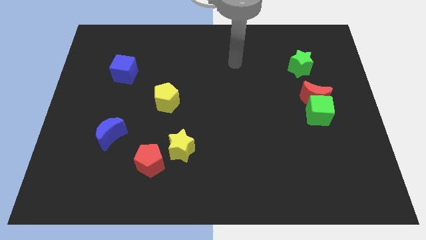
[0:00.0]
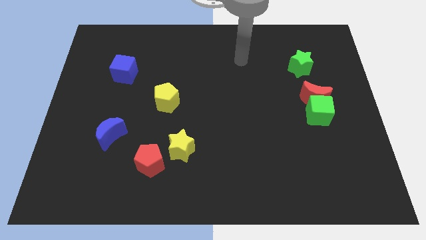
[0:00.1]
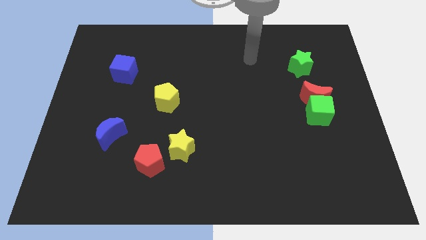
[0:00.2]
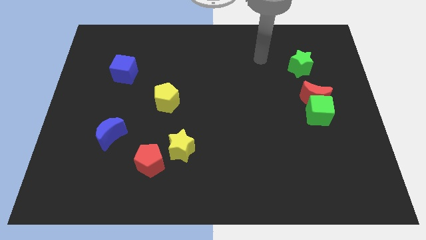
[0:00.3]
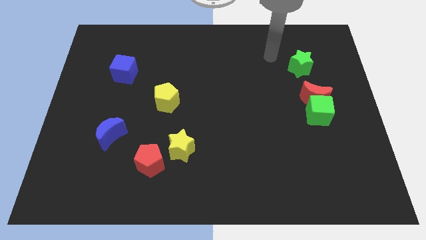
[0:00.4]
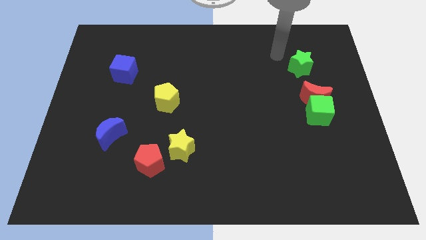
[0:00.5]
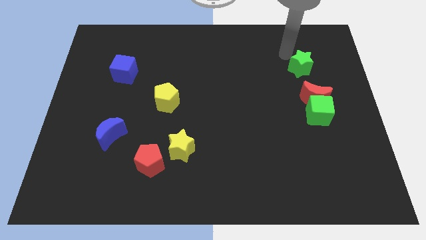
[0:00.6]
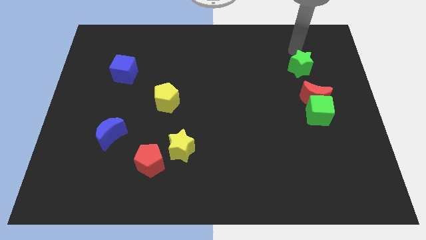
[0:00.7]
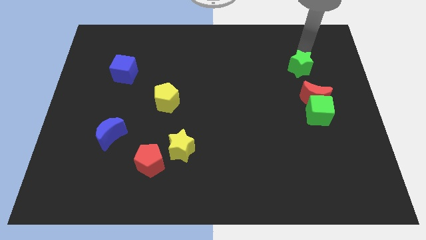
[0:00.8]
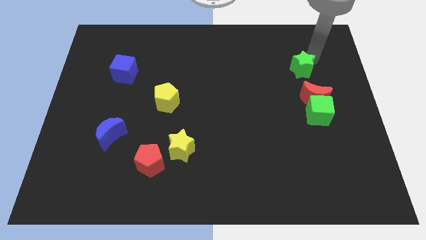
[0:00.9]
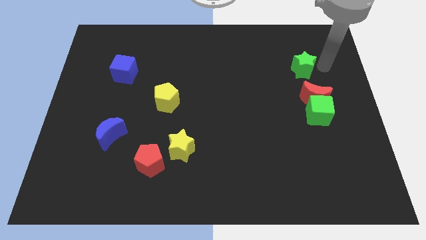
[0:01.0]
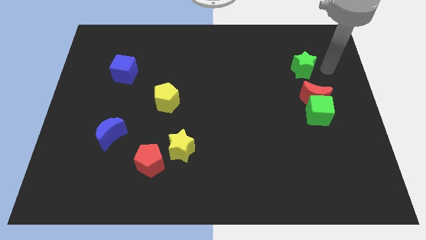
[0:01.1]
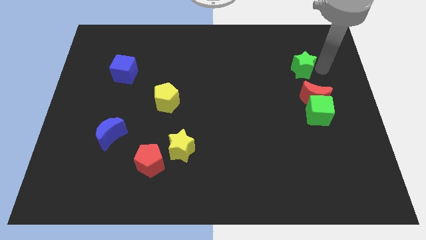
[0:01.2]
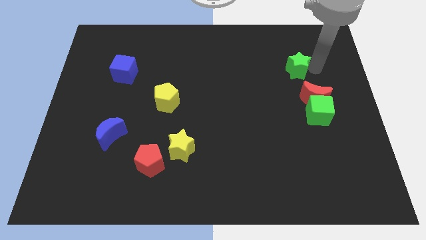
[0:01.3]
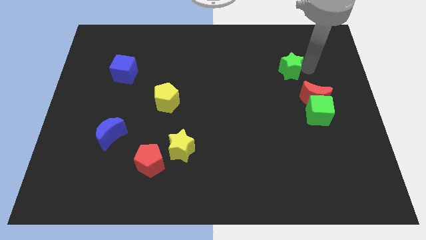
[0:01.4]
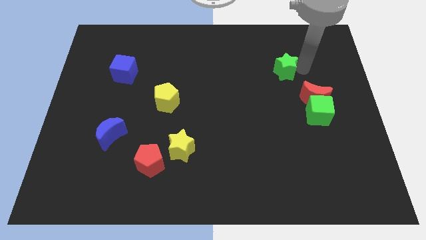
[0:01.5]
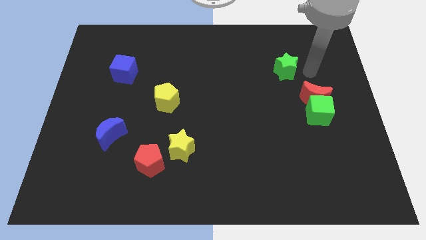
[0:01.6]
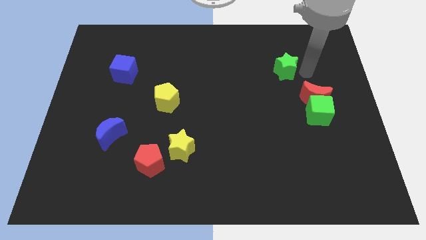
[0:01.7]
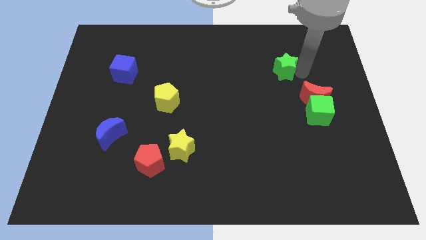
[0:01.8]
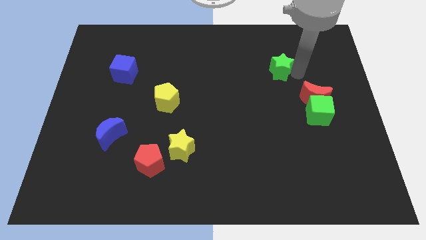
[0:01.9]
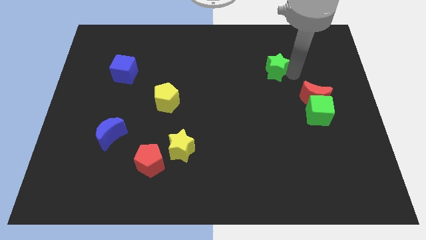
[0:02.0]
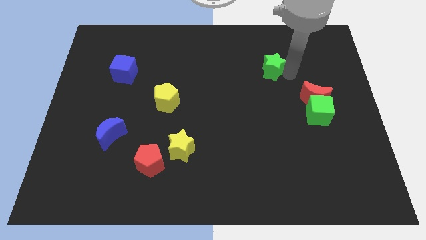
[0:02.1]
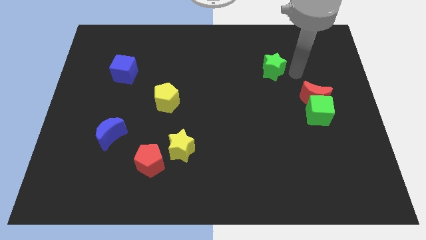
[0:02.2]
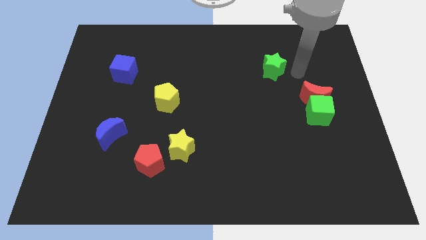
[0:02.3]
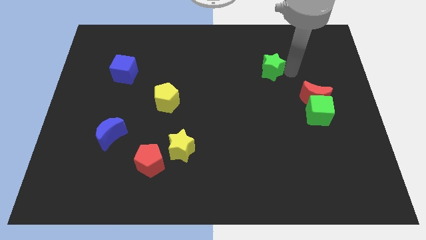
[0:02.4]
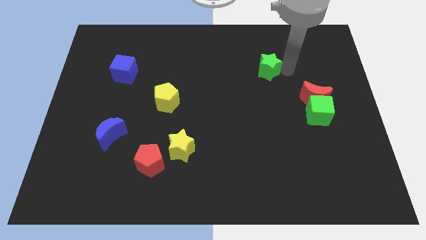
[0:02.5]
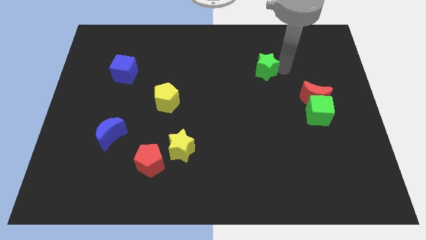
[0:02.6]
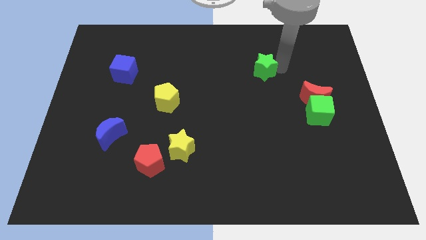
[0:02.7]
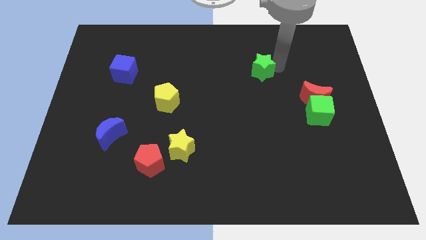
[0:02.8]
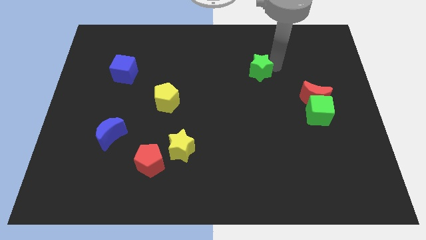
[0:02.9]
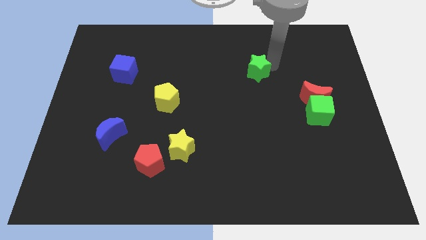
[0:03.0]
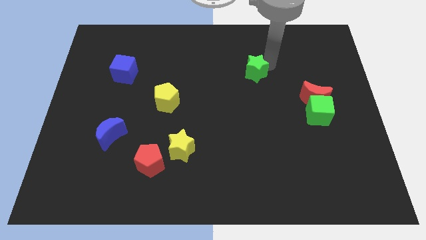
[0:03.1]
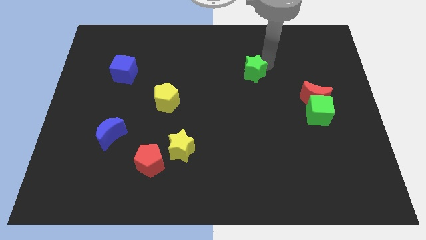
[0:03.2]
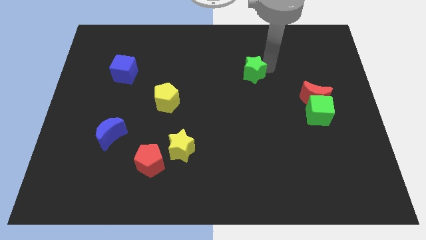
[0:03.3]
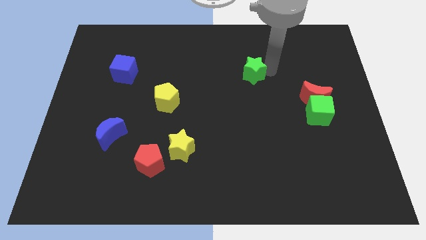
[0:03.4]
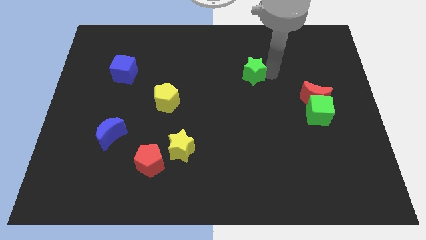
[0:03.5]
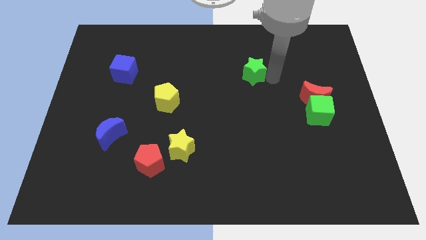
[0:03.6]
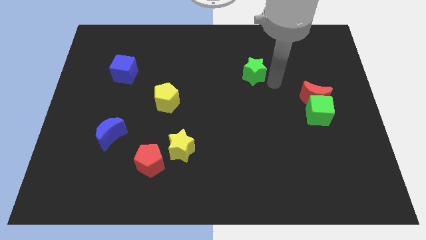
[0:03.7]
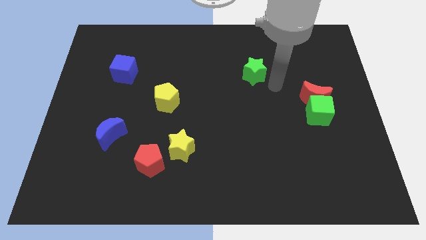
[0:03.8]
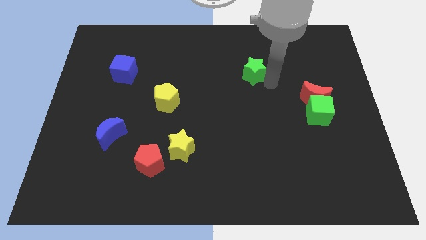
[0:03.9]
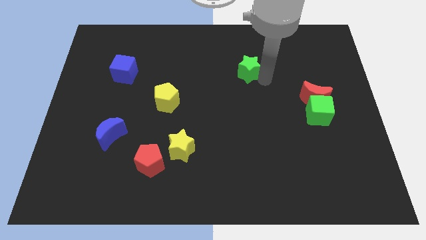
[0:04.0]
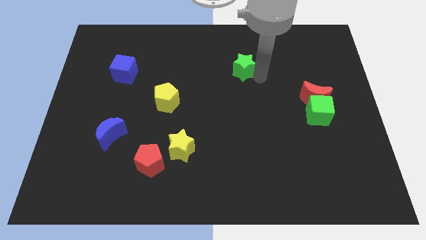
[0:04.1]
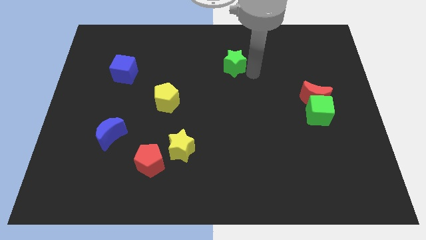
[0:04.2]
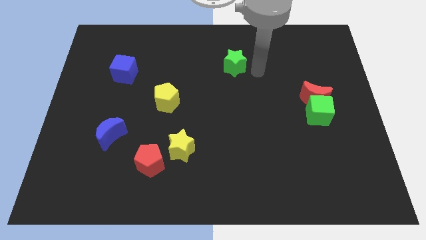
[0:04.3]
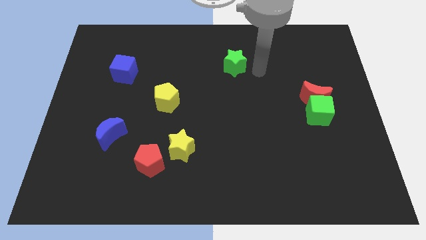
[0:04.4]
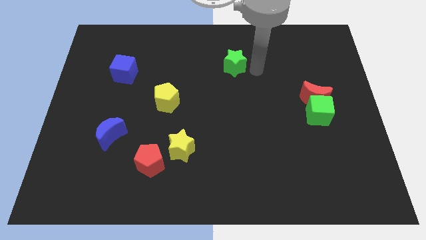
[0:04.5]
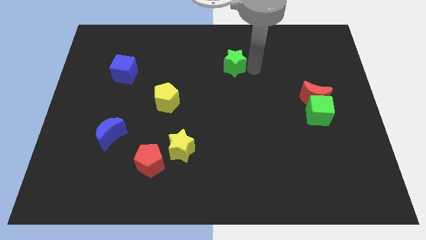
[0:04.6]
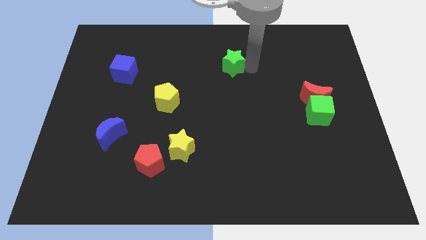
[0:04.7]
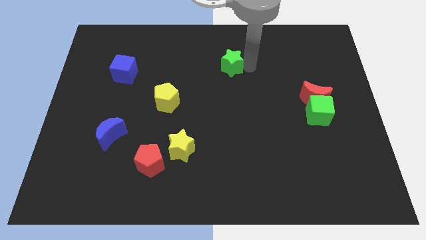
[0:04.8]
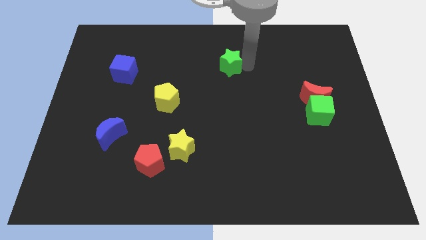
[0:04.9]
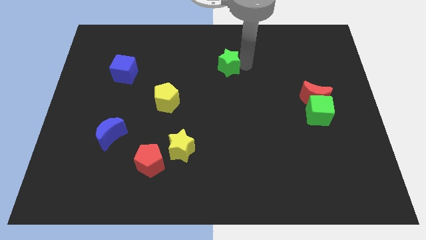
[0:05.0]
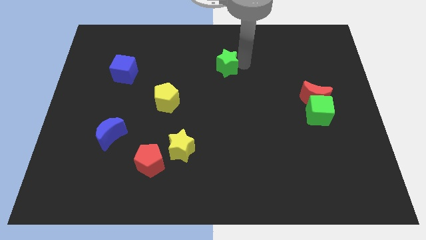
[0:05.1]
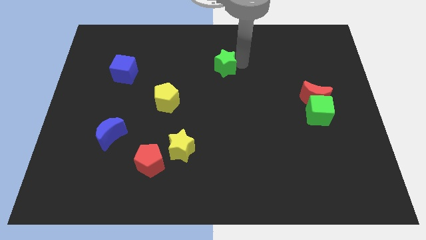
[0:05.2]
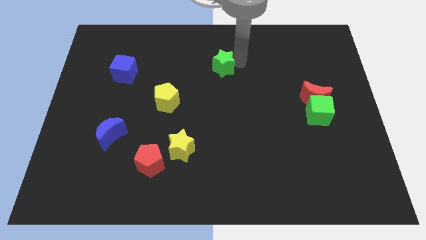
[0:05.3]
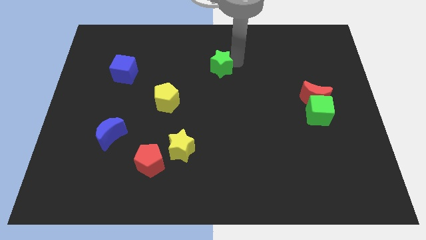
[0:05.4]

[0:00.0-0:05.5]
push the green star to the left

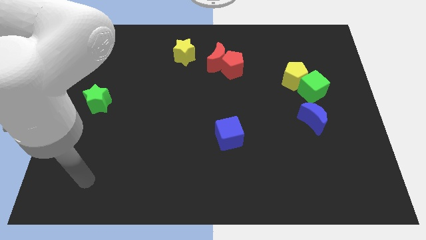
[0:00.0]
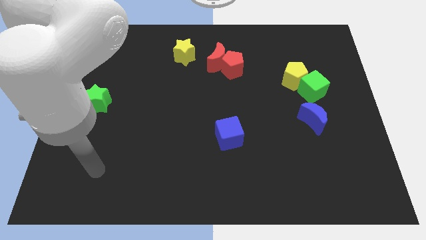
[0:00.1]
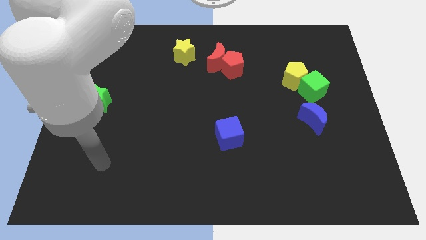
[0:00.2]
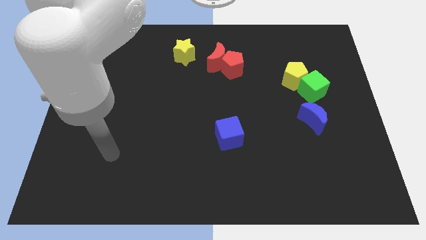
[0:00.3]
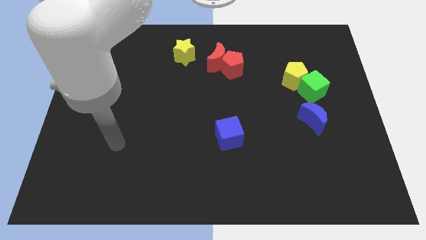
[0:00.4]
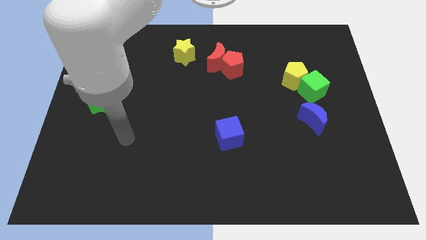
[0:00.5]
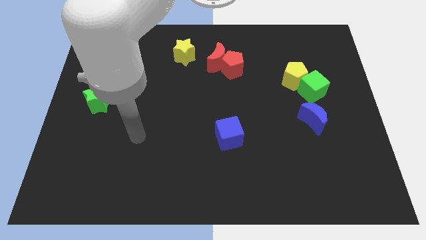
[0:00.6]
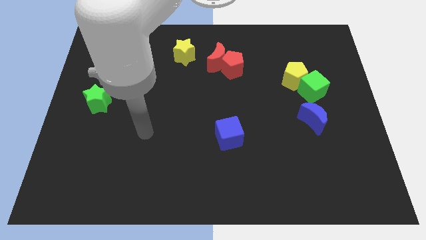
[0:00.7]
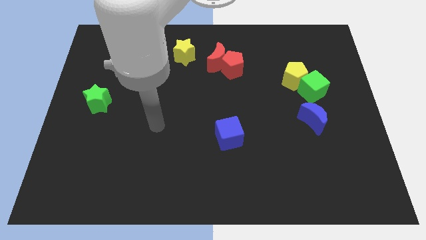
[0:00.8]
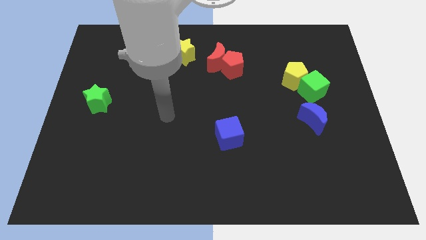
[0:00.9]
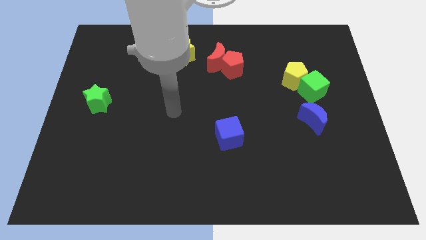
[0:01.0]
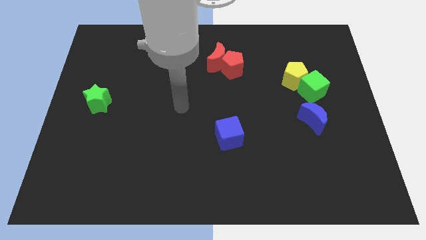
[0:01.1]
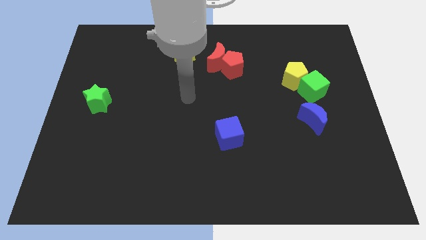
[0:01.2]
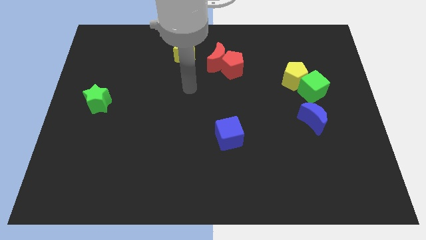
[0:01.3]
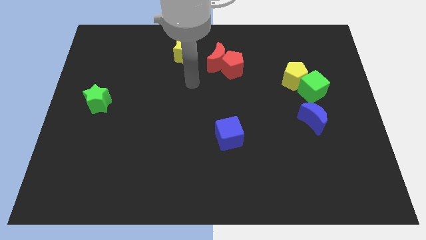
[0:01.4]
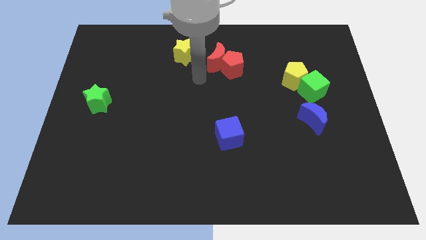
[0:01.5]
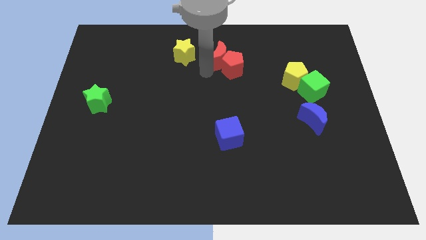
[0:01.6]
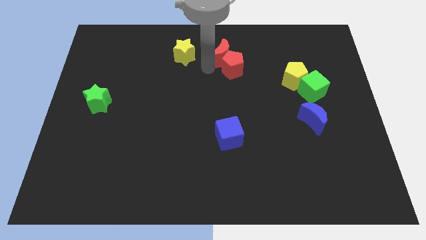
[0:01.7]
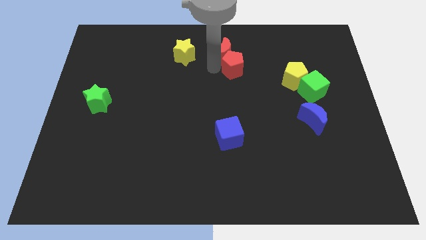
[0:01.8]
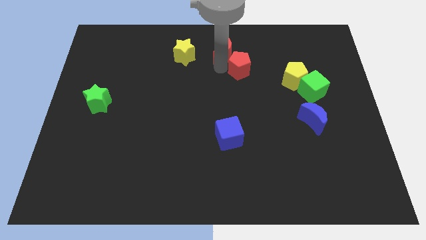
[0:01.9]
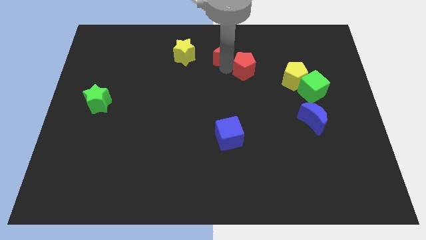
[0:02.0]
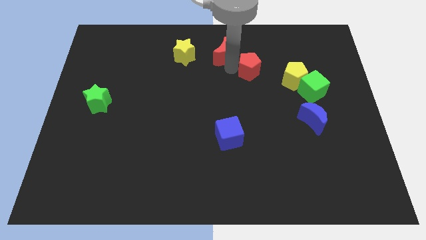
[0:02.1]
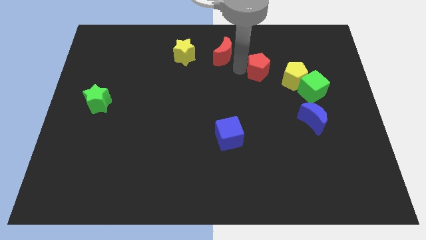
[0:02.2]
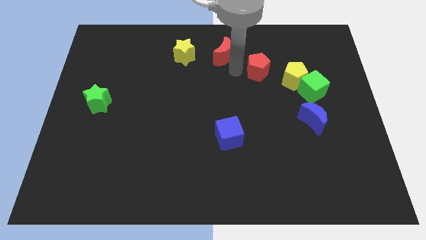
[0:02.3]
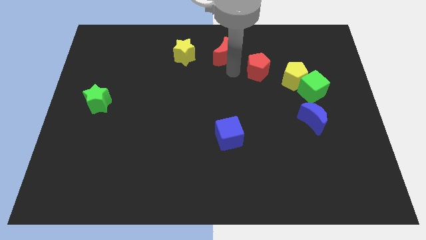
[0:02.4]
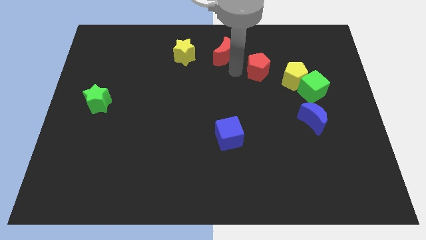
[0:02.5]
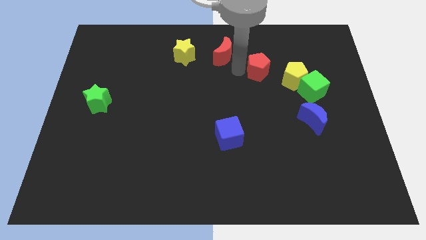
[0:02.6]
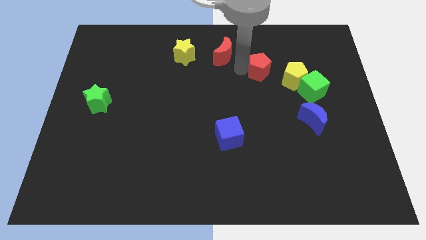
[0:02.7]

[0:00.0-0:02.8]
slightly slide the red pentagon to the right
